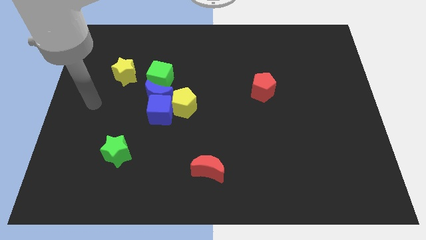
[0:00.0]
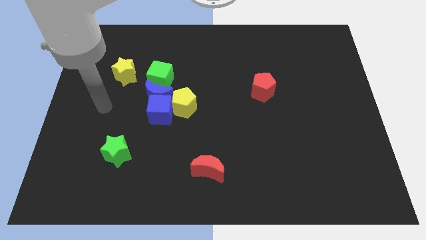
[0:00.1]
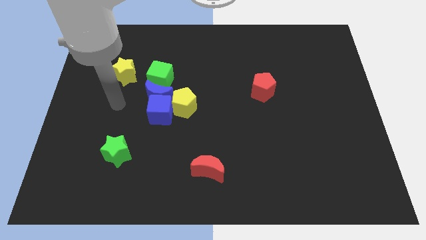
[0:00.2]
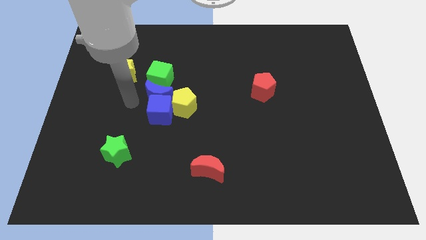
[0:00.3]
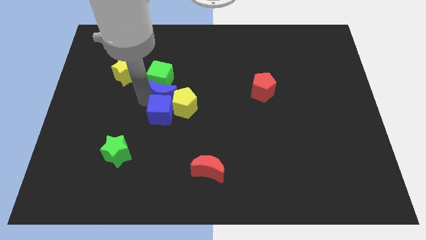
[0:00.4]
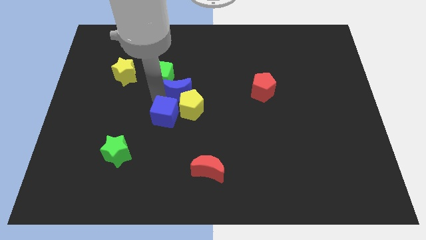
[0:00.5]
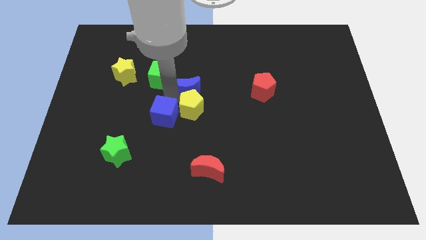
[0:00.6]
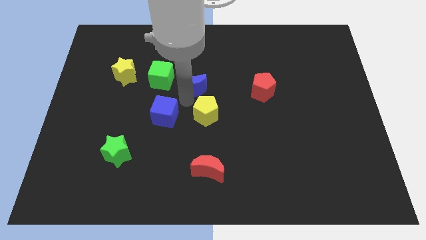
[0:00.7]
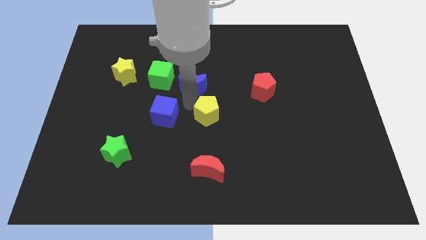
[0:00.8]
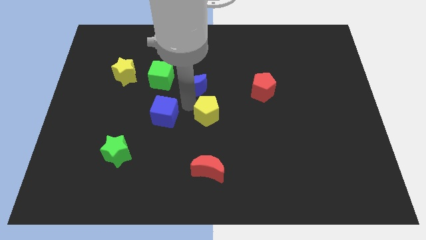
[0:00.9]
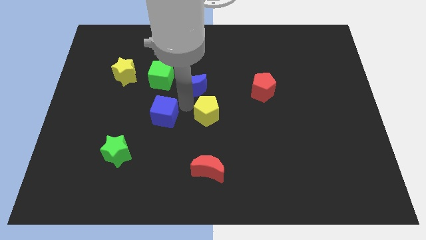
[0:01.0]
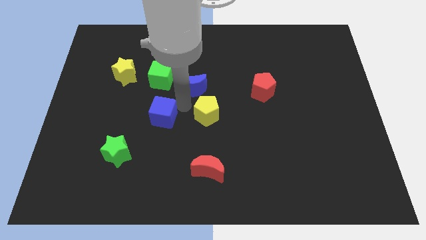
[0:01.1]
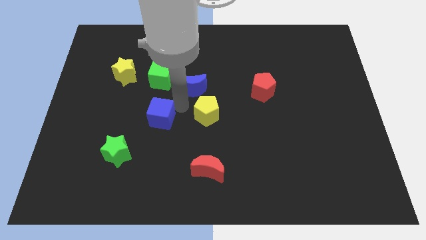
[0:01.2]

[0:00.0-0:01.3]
pull the blue cube apart from the blue moon and yellow pentagon

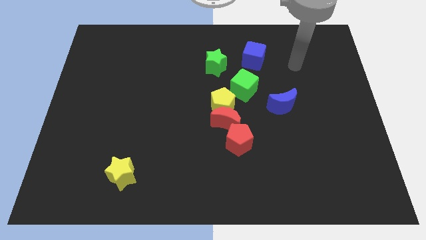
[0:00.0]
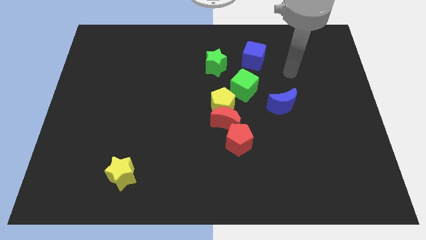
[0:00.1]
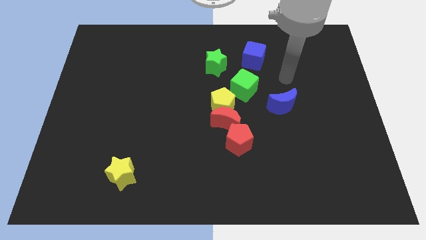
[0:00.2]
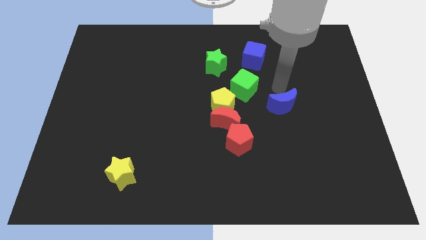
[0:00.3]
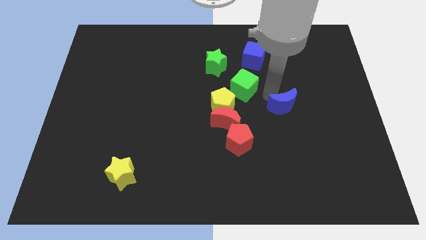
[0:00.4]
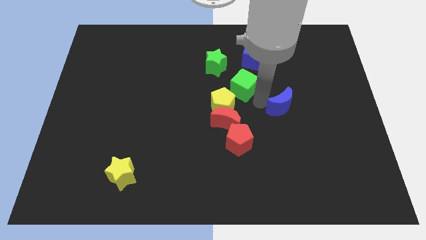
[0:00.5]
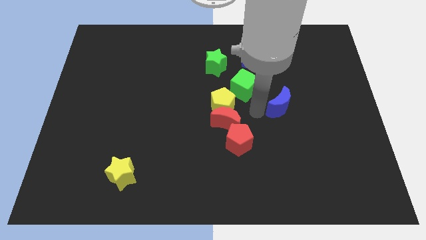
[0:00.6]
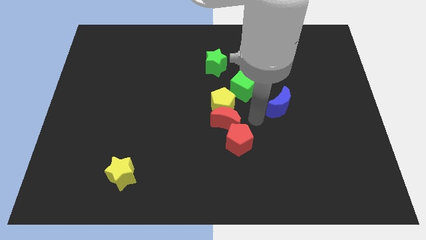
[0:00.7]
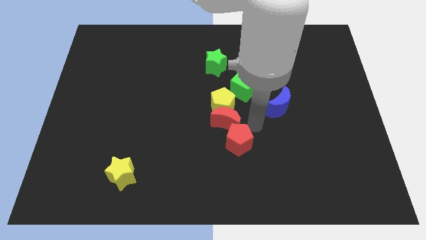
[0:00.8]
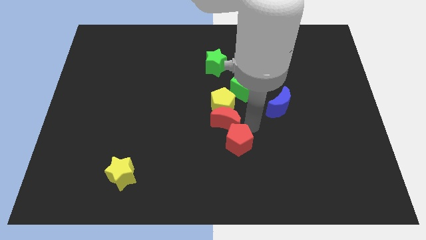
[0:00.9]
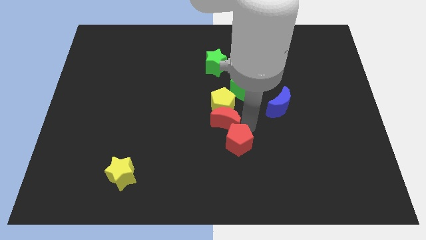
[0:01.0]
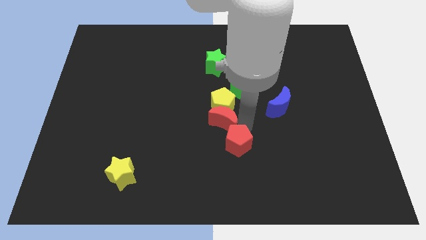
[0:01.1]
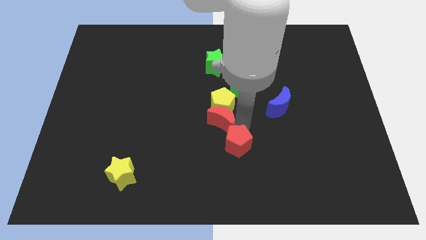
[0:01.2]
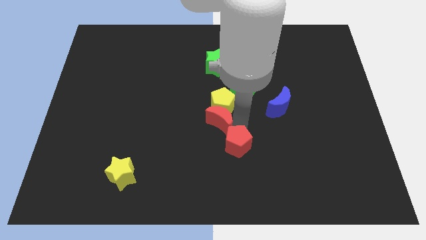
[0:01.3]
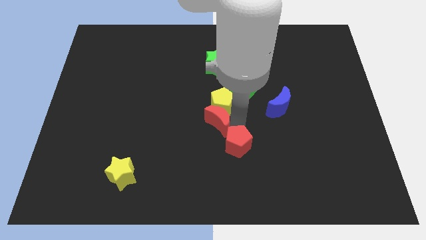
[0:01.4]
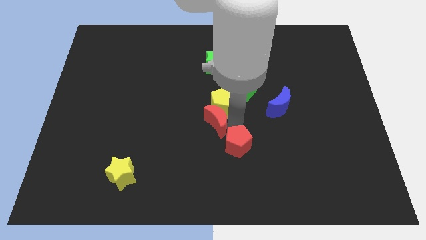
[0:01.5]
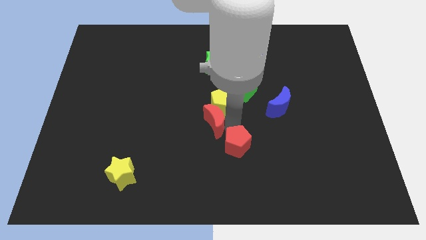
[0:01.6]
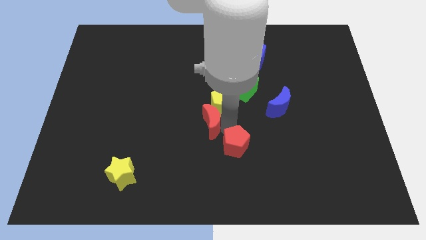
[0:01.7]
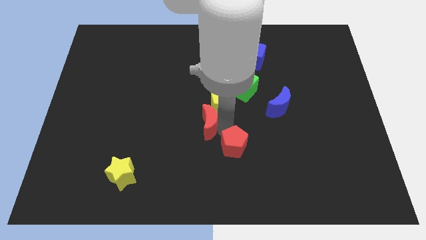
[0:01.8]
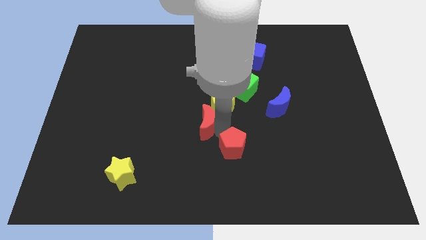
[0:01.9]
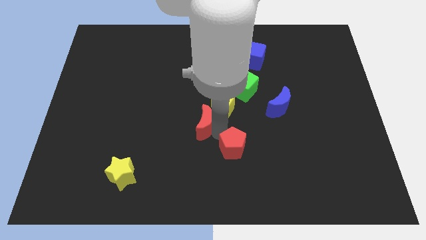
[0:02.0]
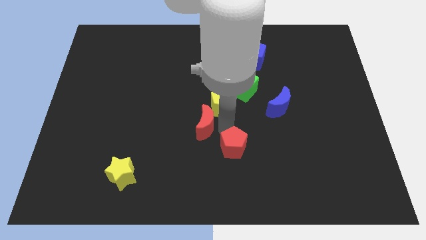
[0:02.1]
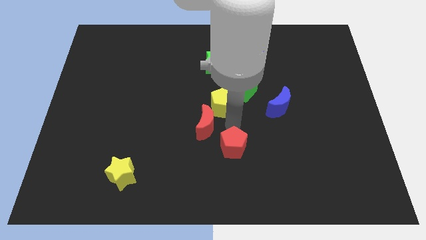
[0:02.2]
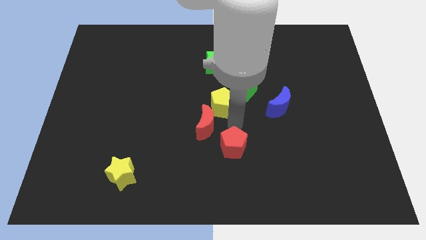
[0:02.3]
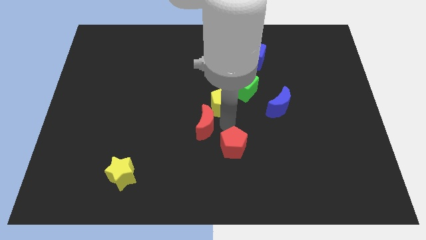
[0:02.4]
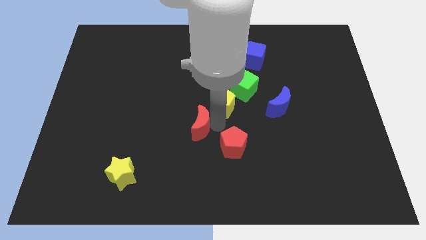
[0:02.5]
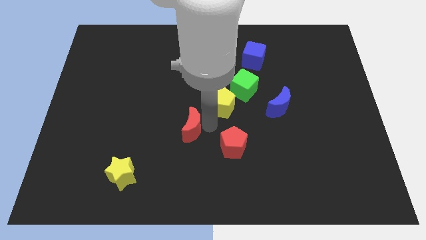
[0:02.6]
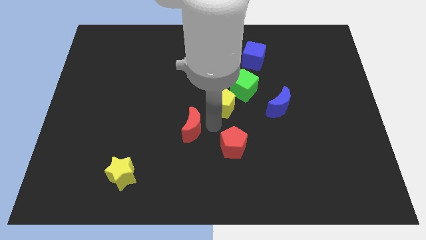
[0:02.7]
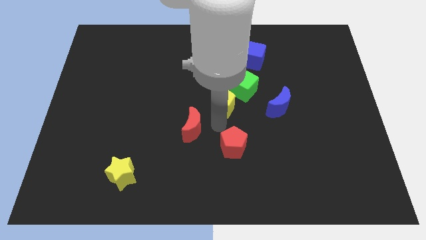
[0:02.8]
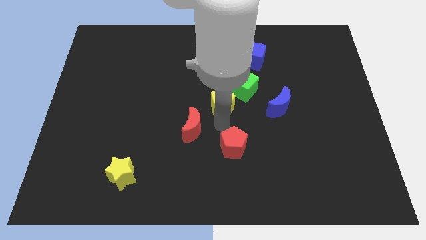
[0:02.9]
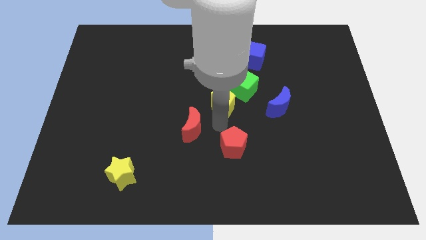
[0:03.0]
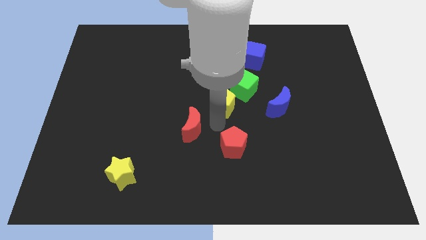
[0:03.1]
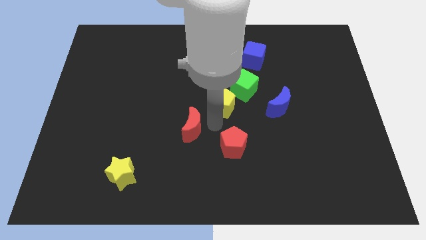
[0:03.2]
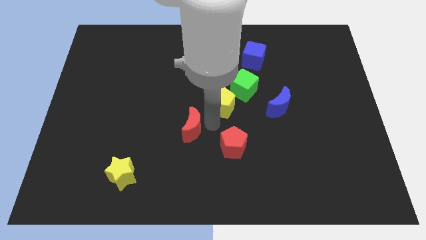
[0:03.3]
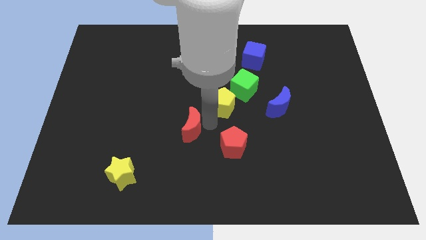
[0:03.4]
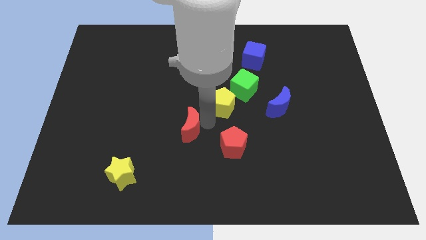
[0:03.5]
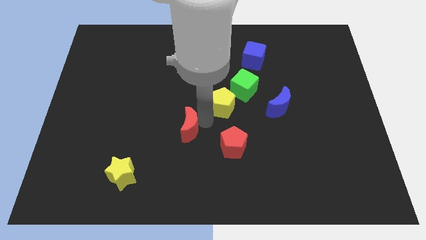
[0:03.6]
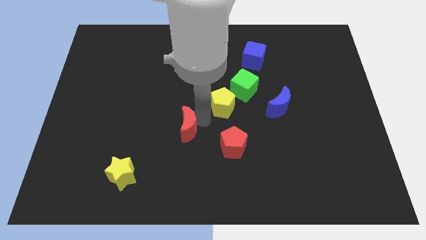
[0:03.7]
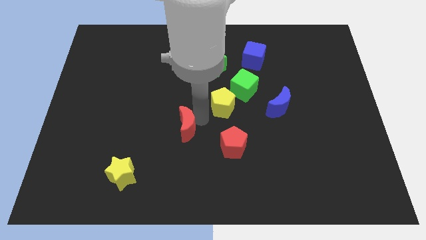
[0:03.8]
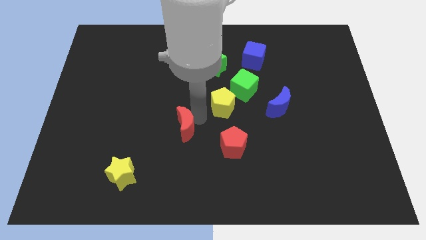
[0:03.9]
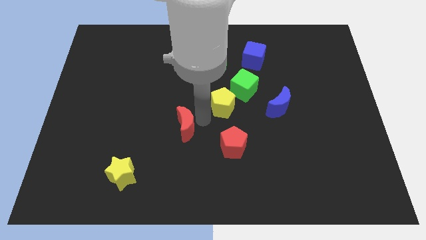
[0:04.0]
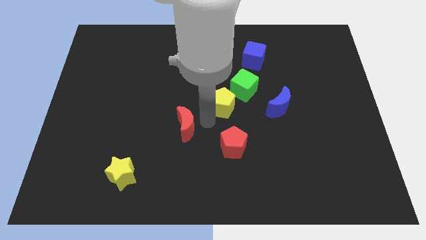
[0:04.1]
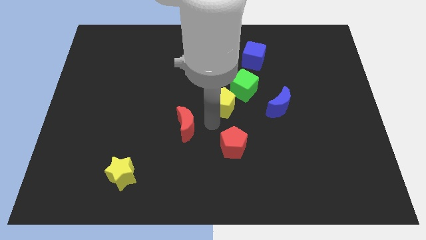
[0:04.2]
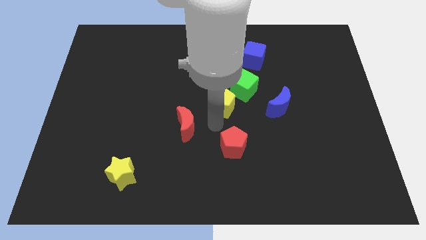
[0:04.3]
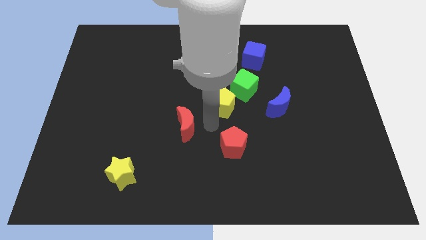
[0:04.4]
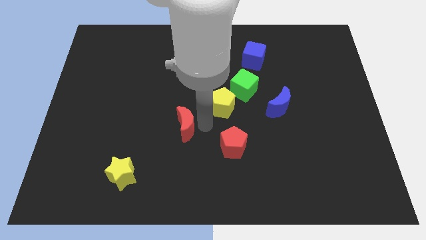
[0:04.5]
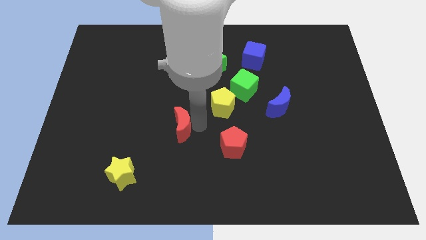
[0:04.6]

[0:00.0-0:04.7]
separate the red moon from the yellow pentagon and red pentagon

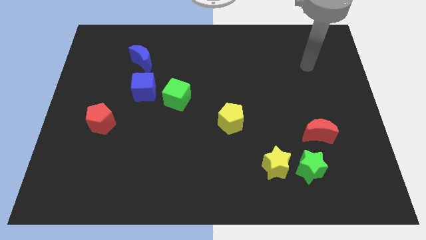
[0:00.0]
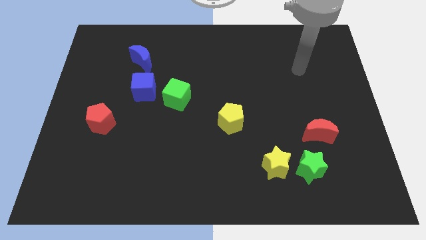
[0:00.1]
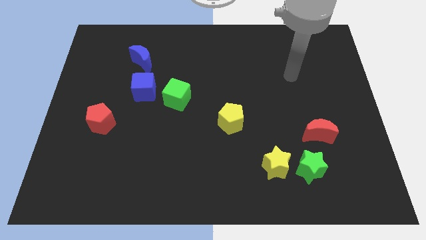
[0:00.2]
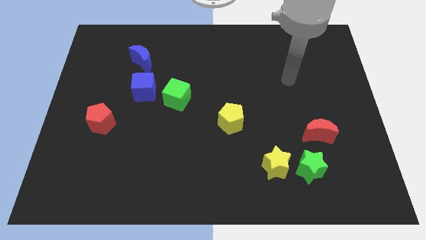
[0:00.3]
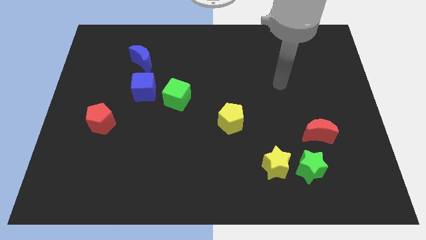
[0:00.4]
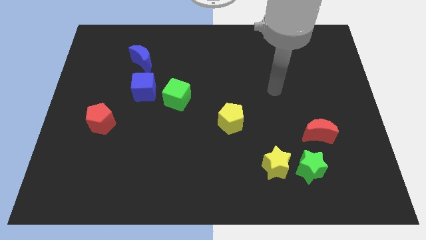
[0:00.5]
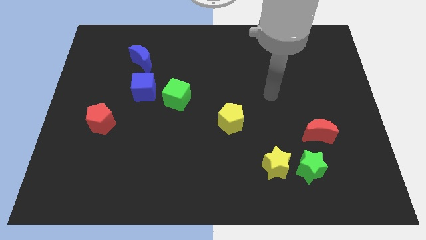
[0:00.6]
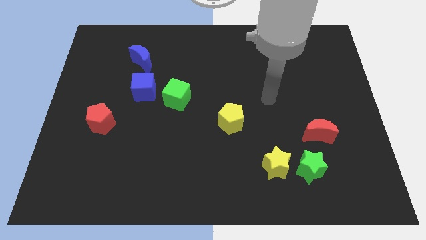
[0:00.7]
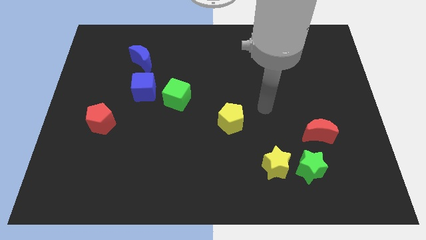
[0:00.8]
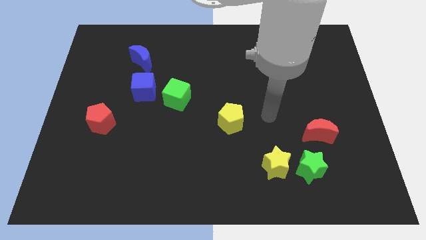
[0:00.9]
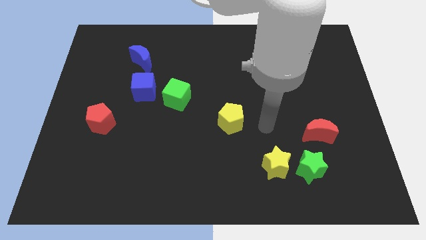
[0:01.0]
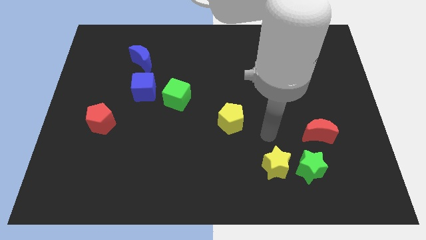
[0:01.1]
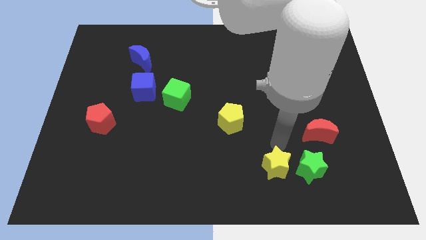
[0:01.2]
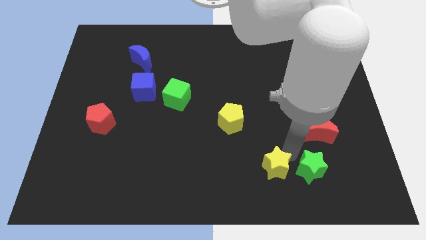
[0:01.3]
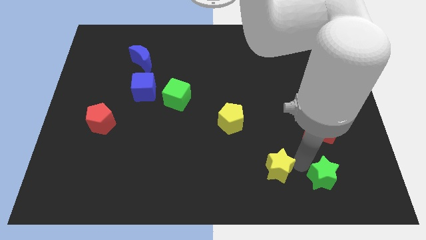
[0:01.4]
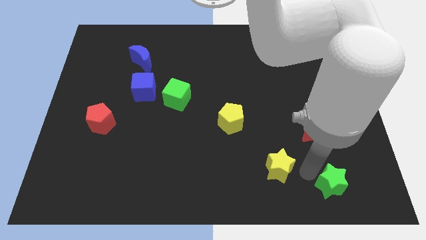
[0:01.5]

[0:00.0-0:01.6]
pull the yellow star apart from the green star

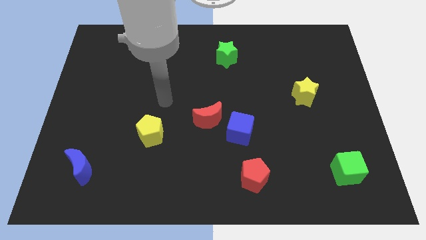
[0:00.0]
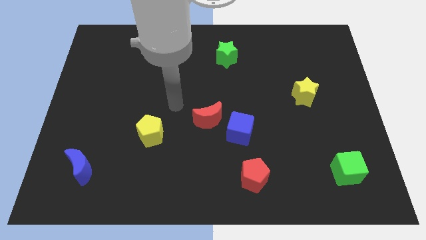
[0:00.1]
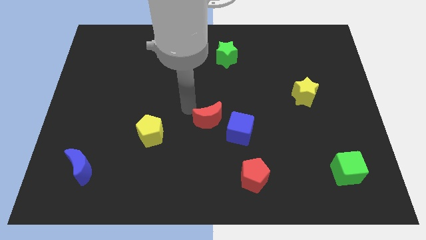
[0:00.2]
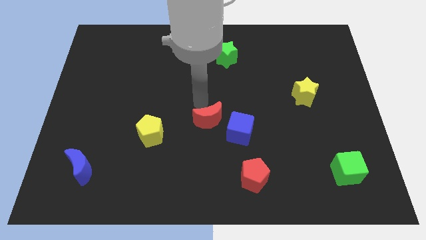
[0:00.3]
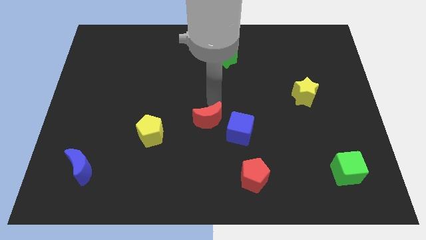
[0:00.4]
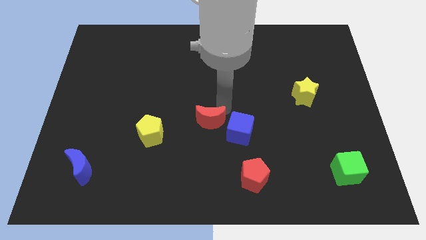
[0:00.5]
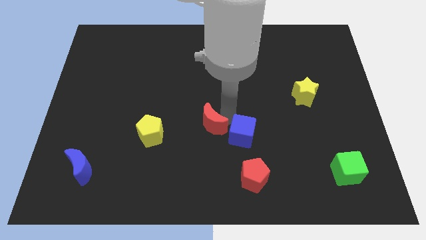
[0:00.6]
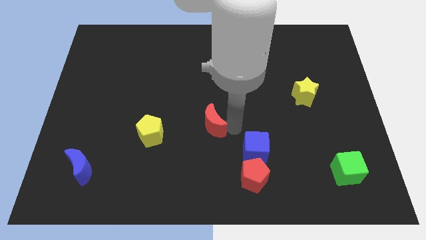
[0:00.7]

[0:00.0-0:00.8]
separate the red moon from the blue cube

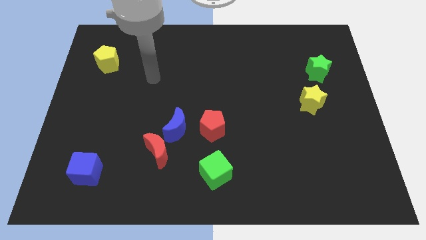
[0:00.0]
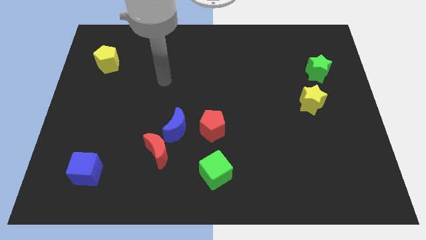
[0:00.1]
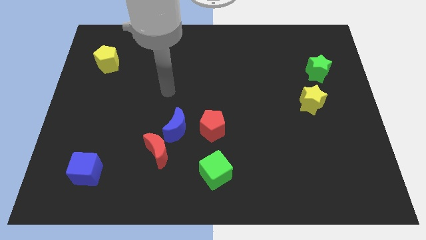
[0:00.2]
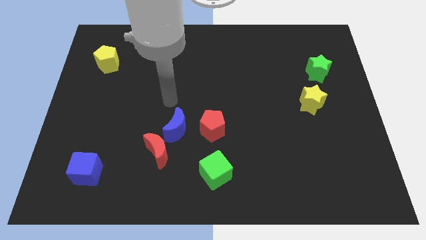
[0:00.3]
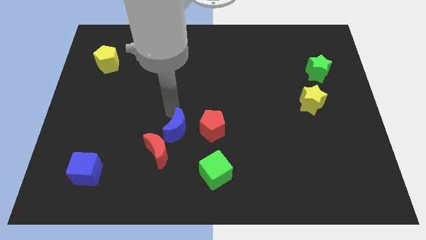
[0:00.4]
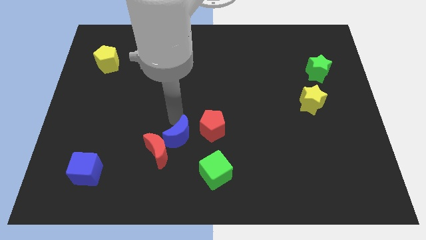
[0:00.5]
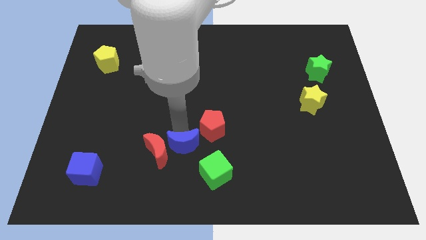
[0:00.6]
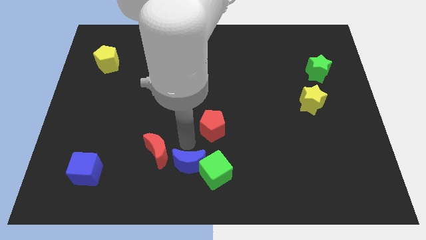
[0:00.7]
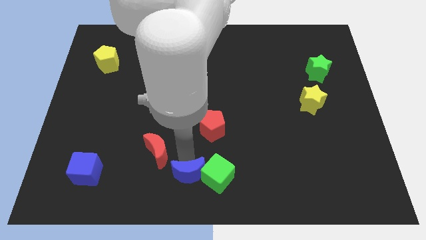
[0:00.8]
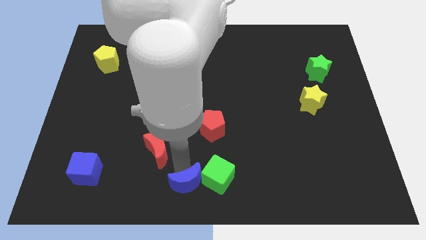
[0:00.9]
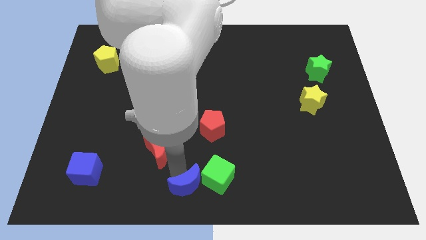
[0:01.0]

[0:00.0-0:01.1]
separate the red moon from the blue moon
